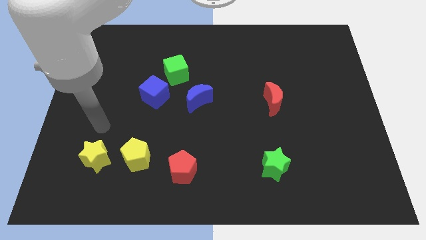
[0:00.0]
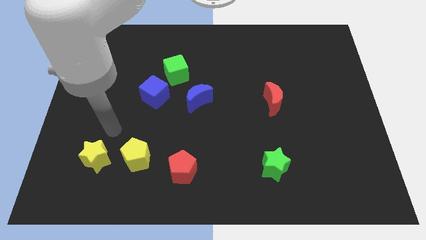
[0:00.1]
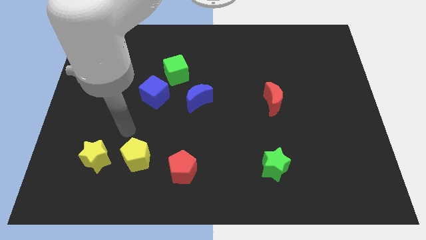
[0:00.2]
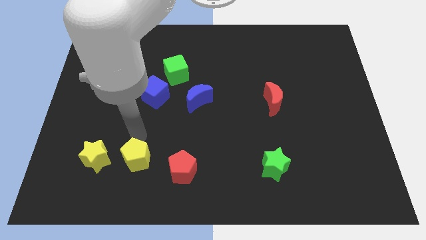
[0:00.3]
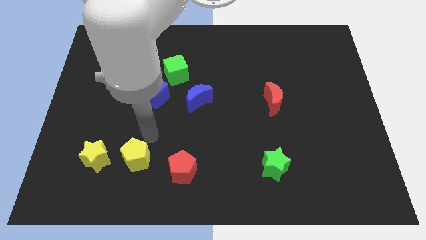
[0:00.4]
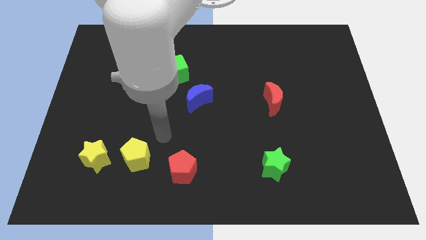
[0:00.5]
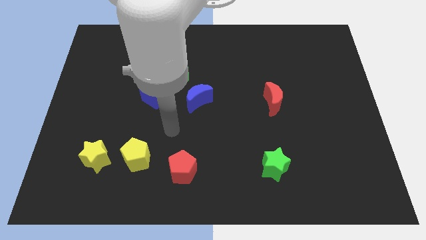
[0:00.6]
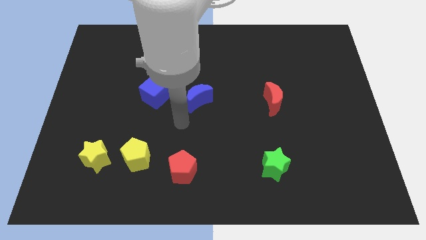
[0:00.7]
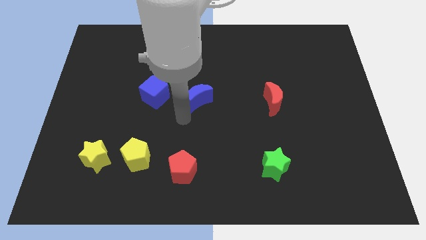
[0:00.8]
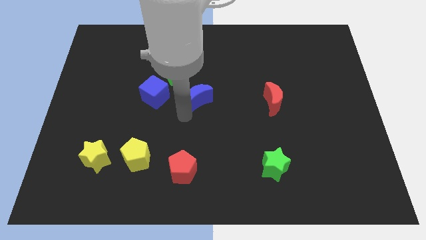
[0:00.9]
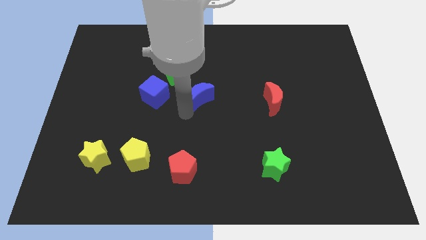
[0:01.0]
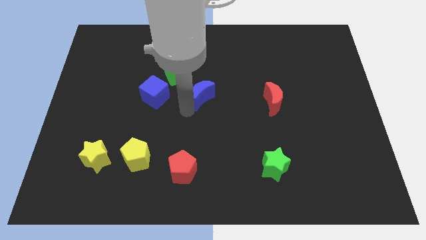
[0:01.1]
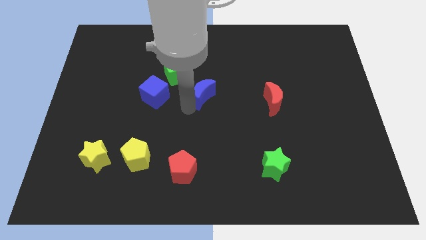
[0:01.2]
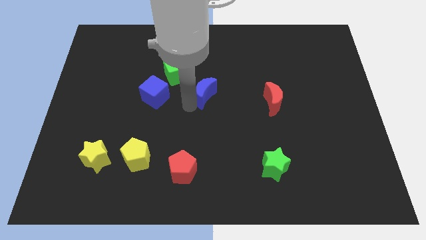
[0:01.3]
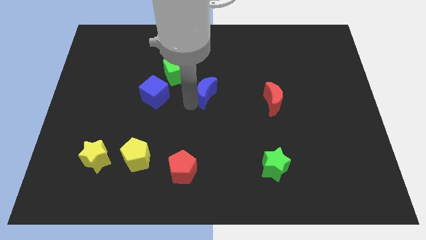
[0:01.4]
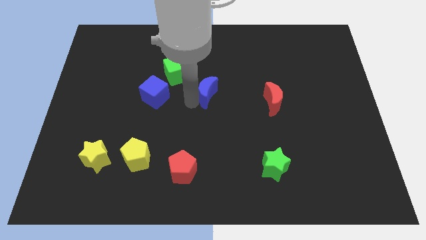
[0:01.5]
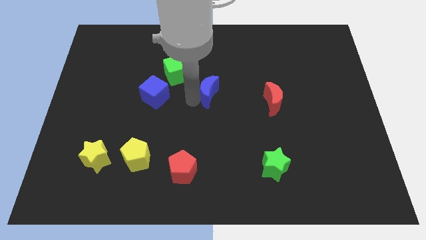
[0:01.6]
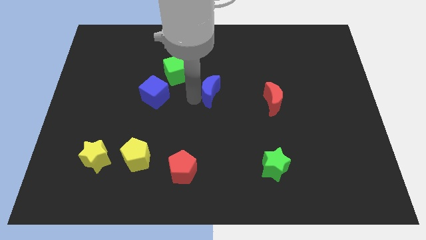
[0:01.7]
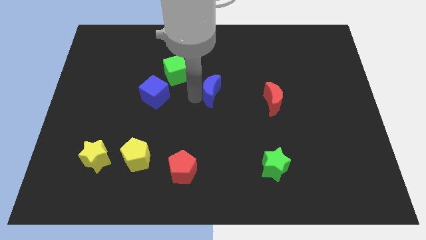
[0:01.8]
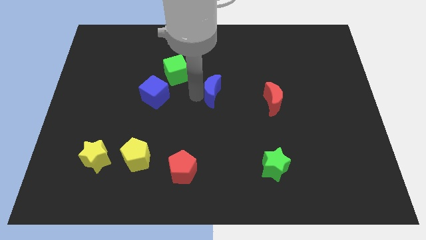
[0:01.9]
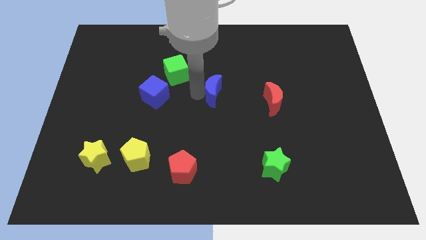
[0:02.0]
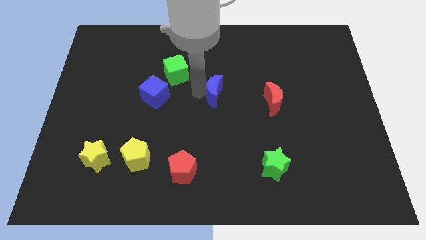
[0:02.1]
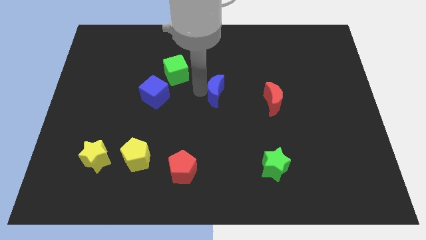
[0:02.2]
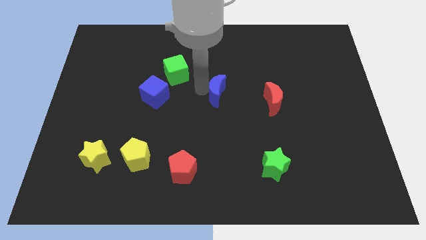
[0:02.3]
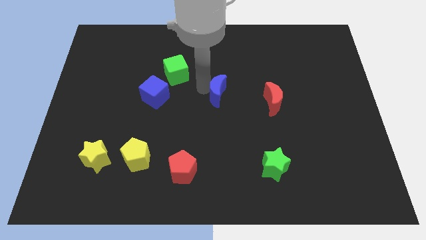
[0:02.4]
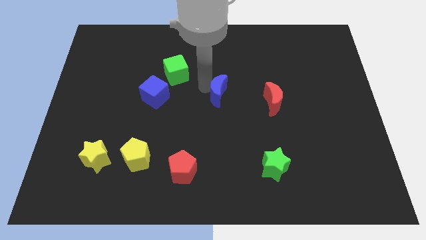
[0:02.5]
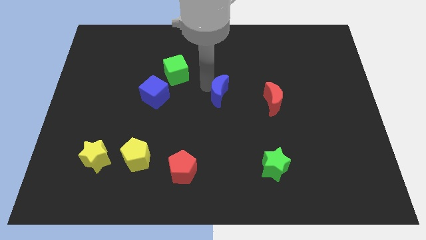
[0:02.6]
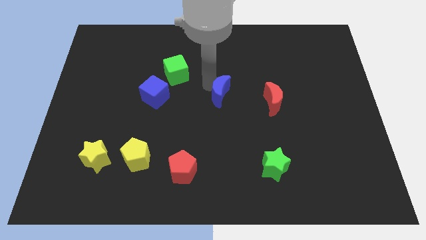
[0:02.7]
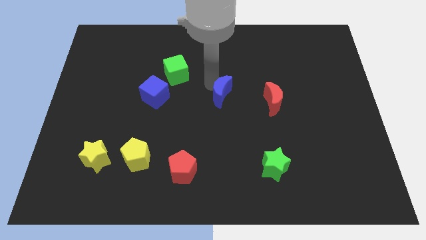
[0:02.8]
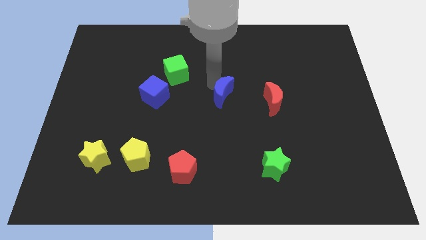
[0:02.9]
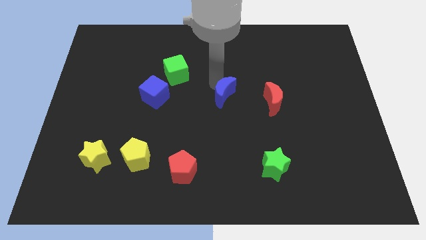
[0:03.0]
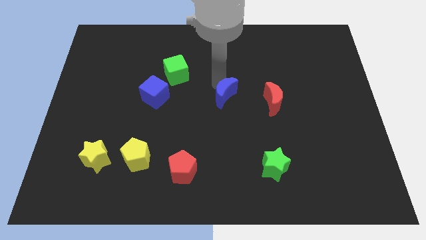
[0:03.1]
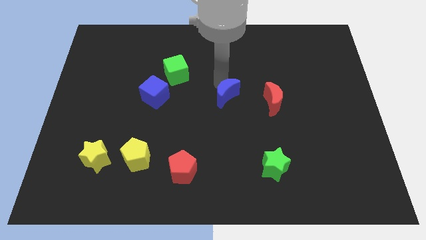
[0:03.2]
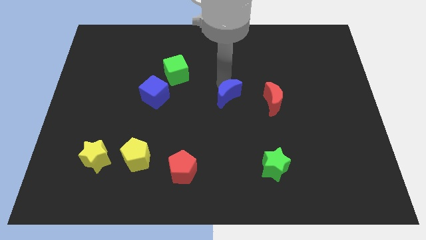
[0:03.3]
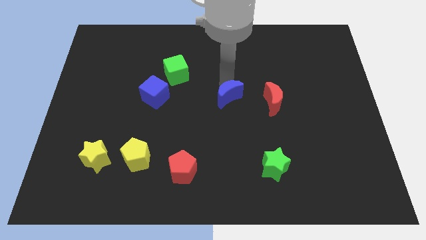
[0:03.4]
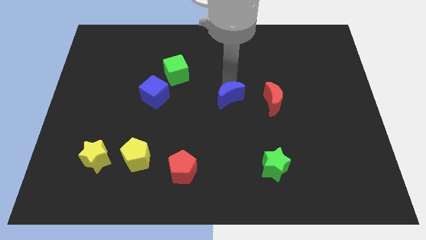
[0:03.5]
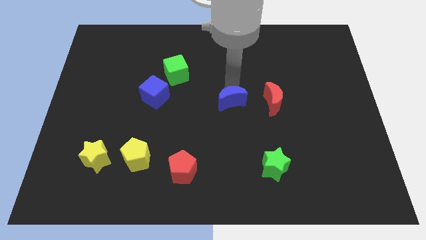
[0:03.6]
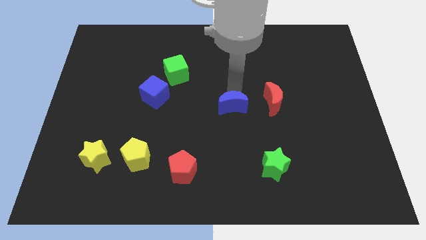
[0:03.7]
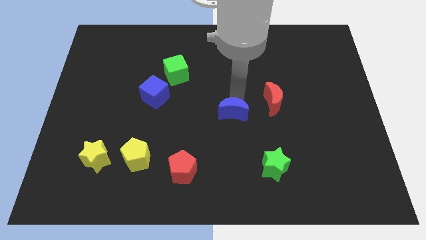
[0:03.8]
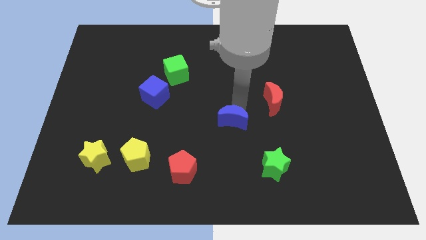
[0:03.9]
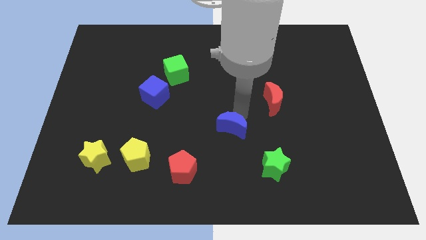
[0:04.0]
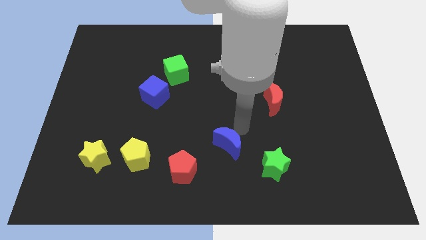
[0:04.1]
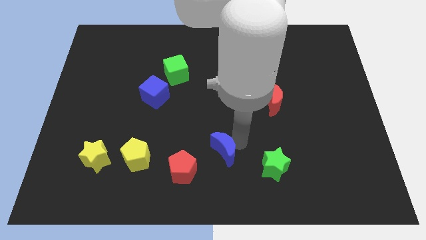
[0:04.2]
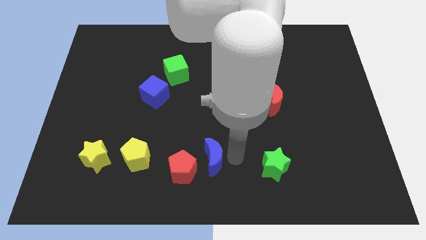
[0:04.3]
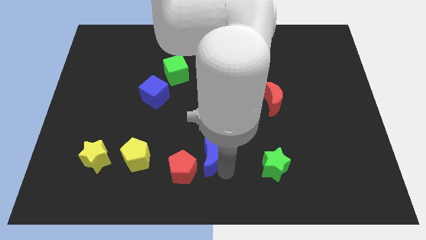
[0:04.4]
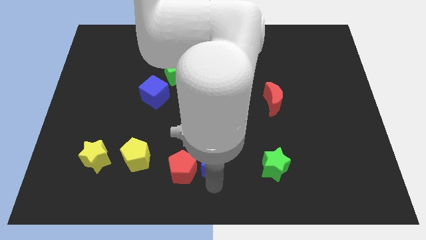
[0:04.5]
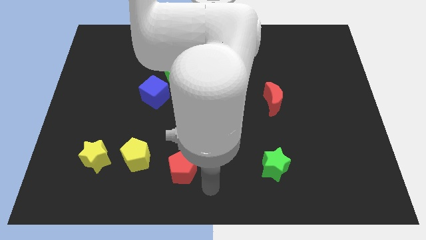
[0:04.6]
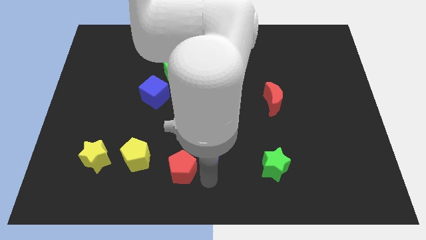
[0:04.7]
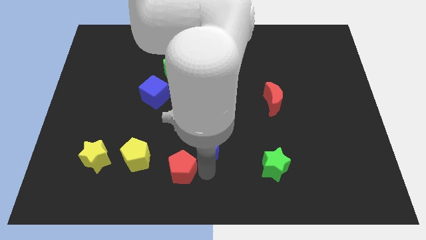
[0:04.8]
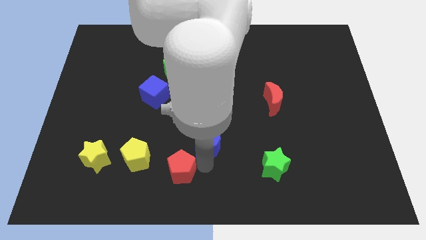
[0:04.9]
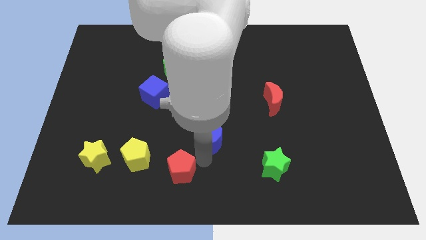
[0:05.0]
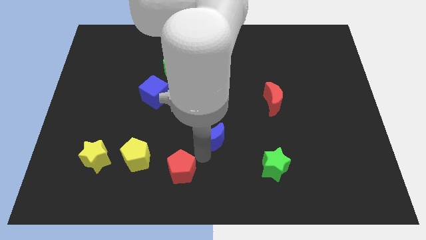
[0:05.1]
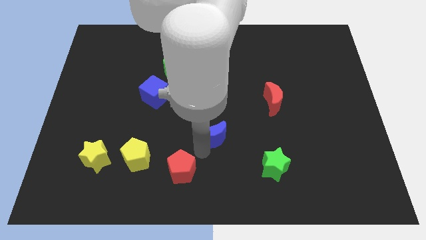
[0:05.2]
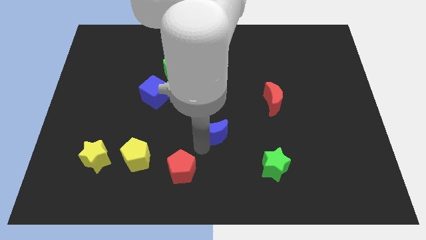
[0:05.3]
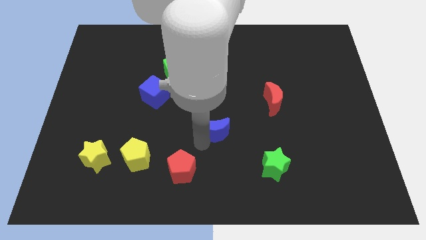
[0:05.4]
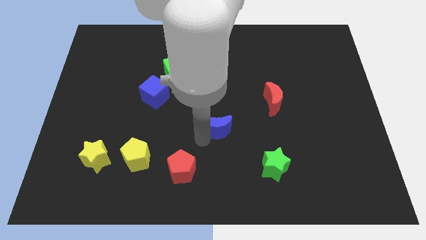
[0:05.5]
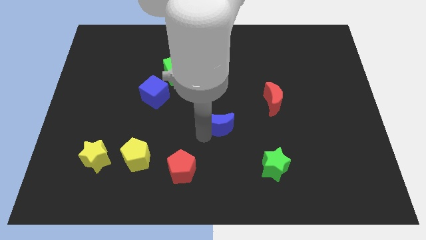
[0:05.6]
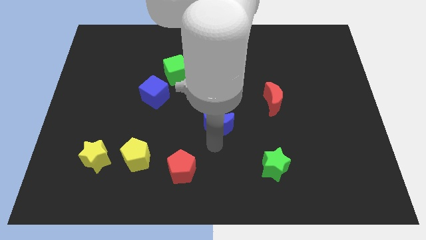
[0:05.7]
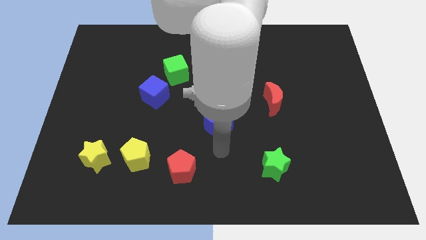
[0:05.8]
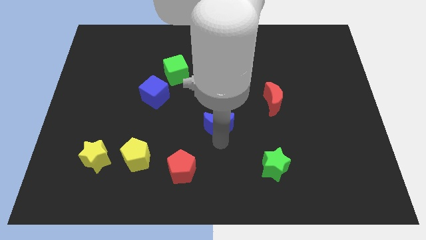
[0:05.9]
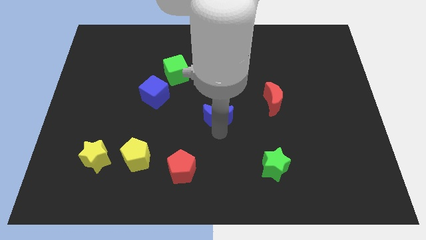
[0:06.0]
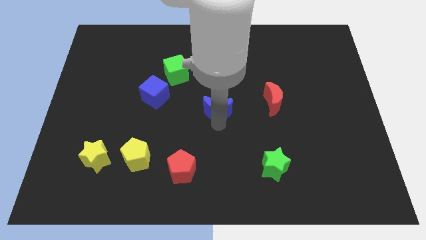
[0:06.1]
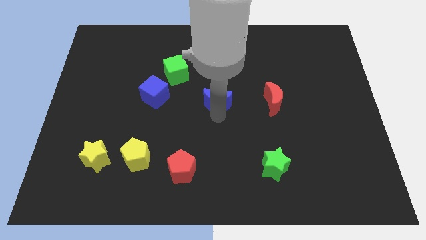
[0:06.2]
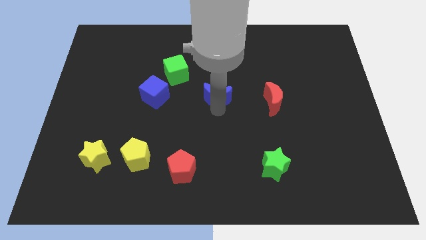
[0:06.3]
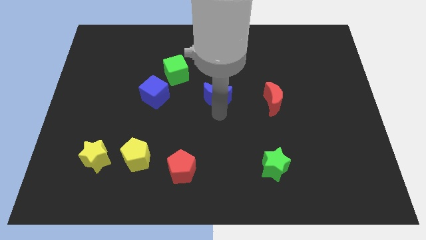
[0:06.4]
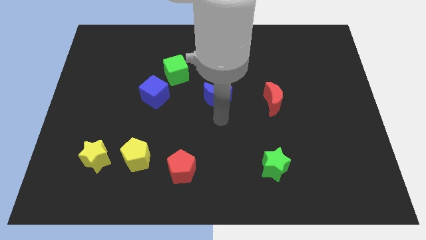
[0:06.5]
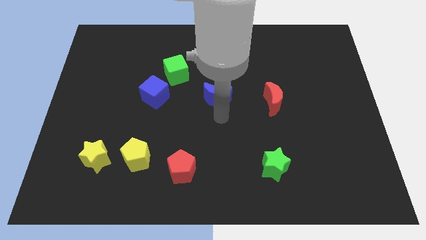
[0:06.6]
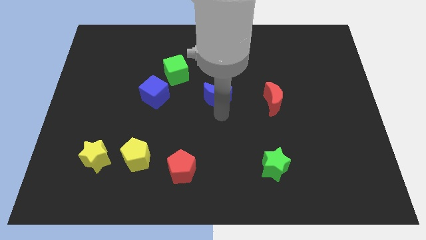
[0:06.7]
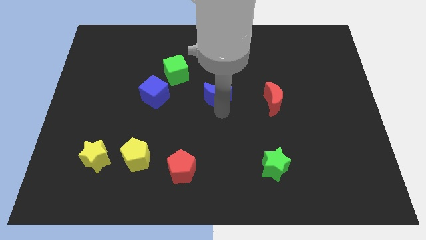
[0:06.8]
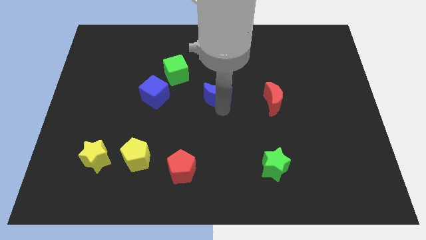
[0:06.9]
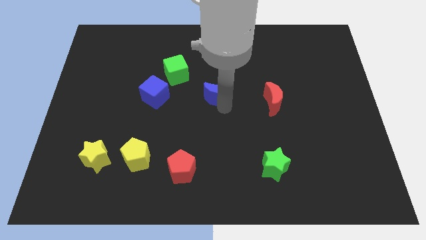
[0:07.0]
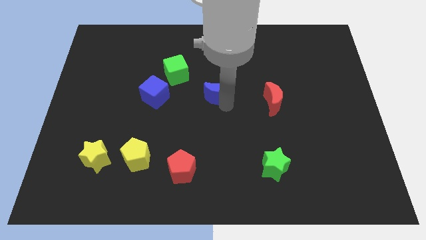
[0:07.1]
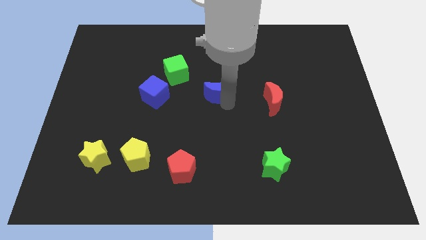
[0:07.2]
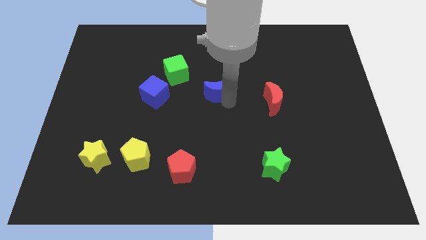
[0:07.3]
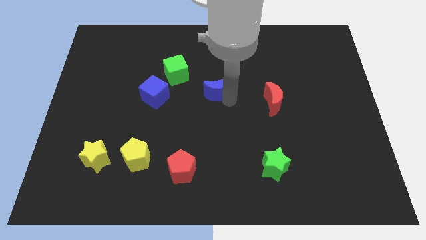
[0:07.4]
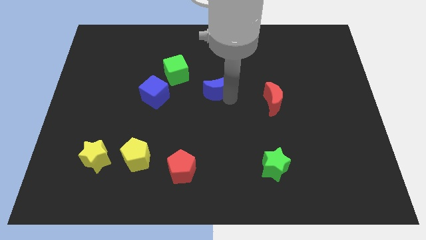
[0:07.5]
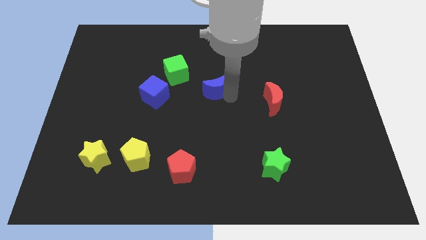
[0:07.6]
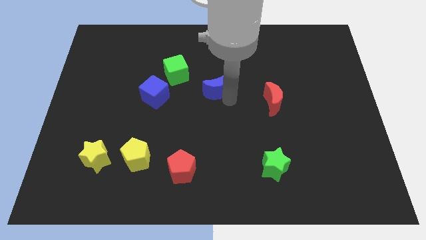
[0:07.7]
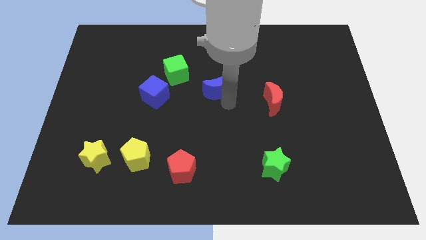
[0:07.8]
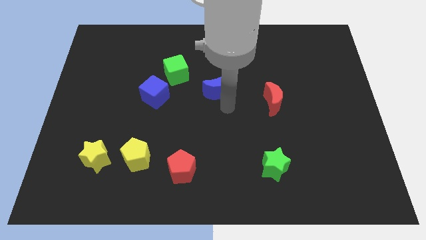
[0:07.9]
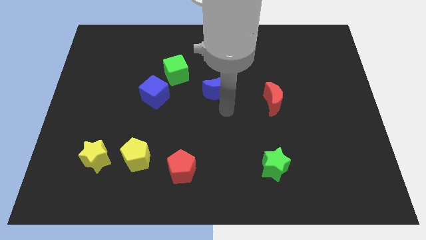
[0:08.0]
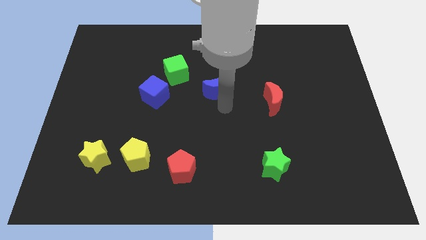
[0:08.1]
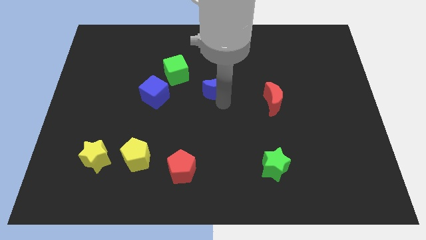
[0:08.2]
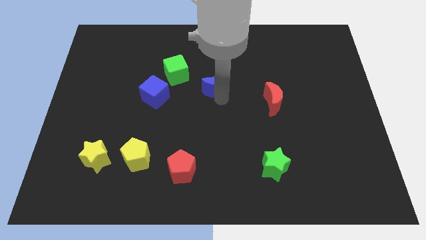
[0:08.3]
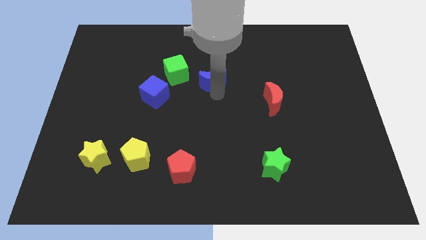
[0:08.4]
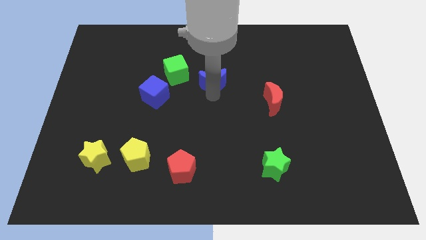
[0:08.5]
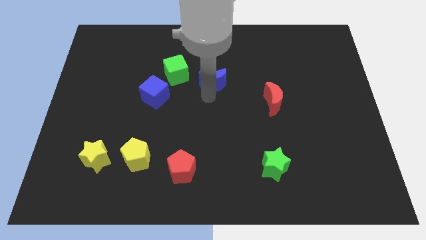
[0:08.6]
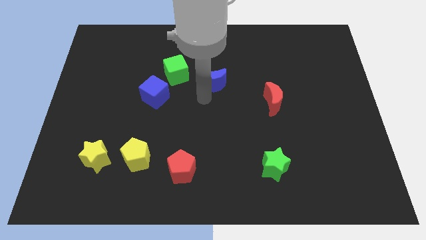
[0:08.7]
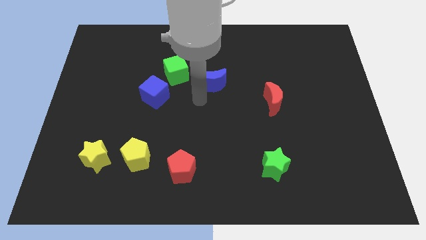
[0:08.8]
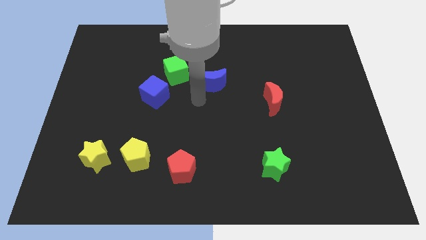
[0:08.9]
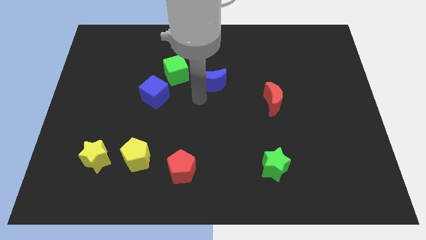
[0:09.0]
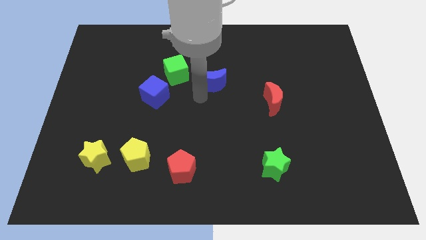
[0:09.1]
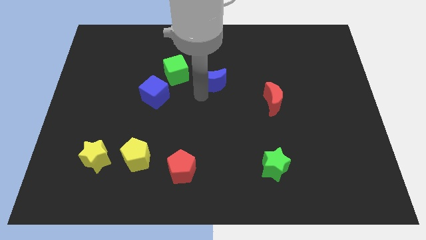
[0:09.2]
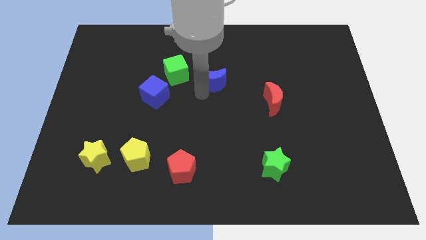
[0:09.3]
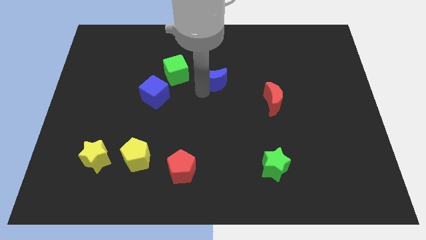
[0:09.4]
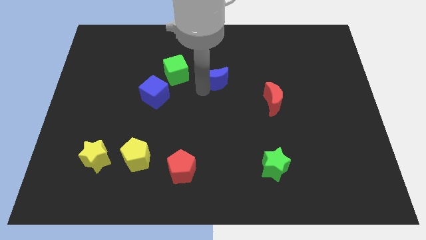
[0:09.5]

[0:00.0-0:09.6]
slide the blue moon slightly diagonally up and to the right
